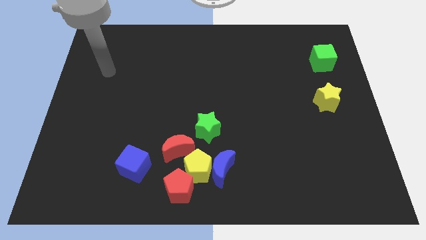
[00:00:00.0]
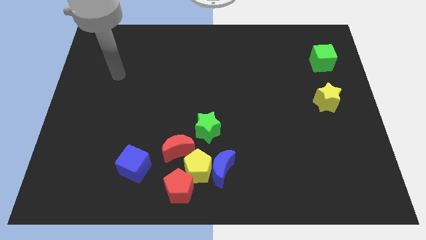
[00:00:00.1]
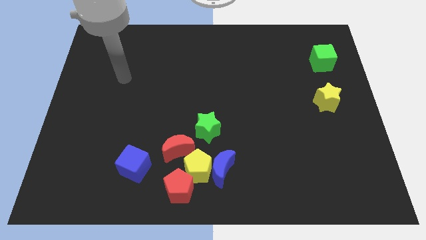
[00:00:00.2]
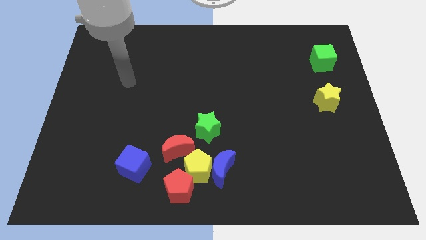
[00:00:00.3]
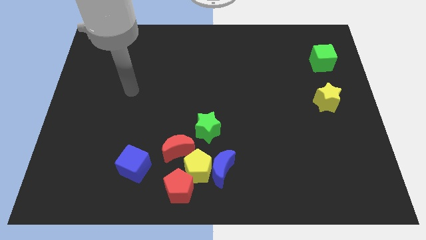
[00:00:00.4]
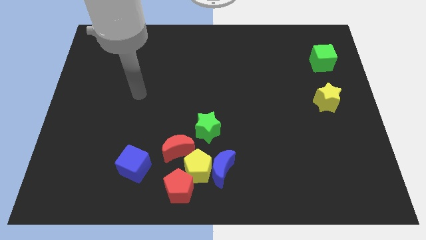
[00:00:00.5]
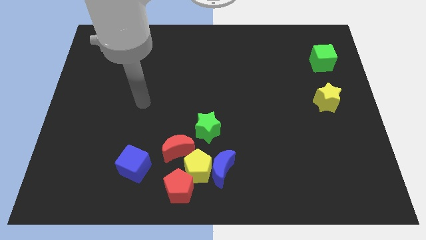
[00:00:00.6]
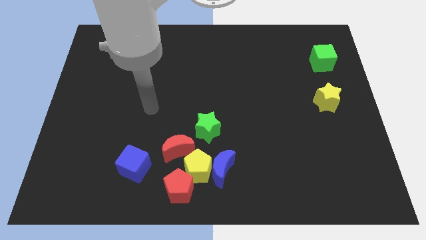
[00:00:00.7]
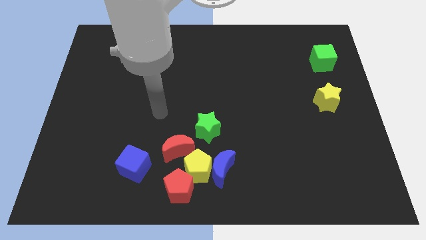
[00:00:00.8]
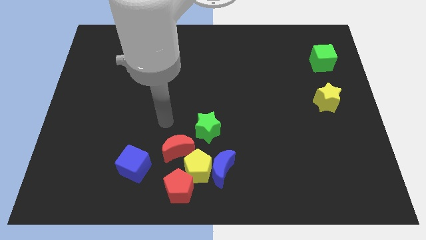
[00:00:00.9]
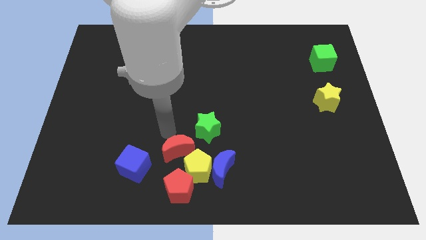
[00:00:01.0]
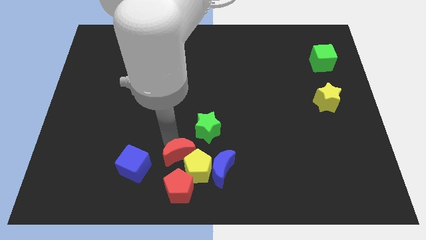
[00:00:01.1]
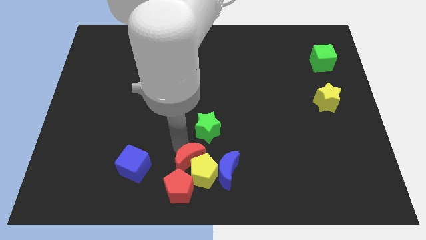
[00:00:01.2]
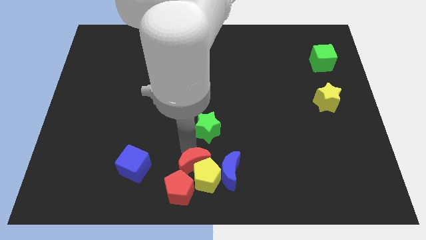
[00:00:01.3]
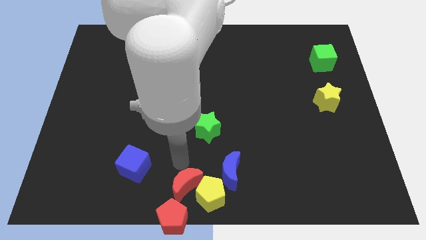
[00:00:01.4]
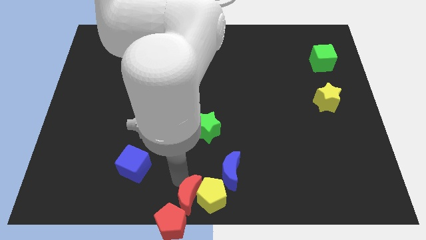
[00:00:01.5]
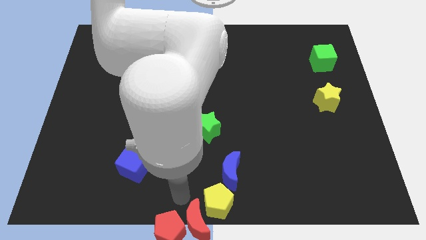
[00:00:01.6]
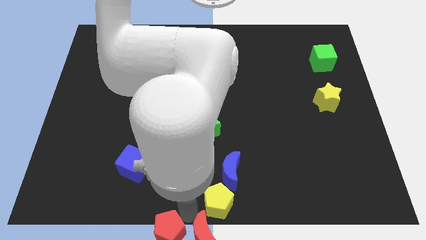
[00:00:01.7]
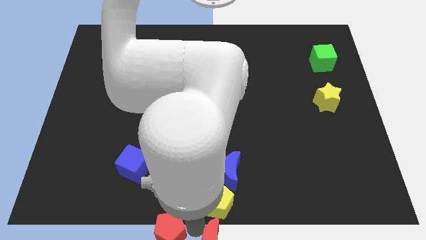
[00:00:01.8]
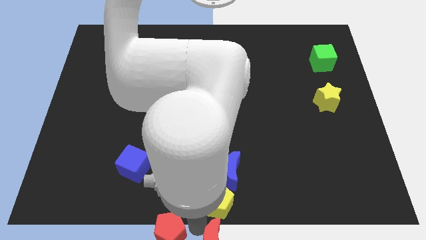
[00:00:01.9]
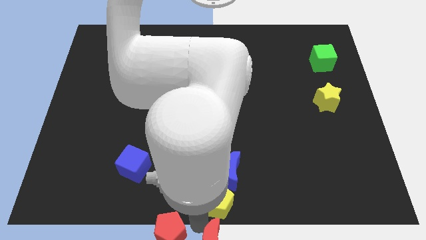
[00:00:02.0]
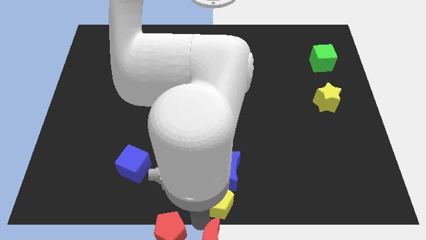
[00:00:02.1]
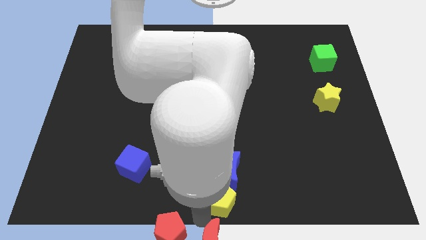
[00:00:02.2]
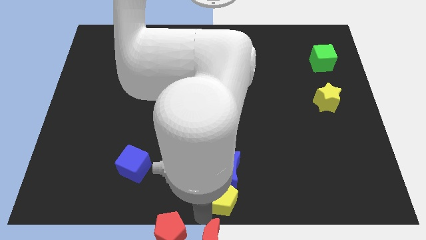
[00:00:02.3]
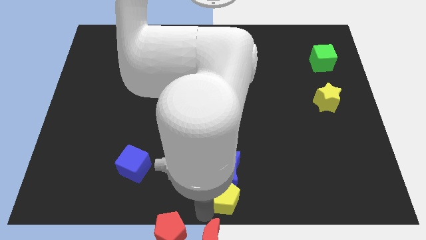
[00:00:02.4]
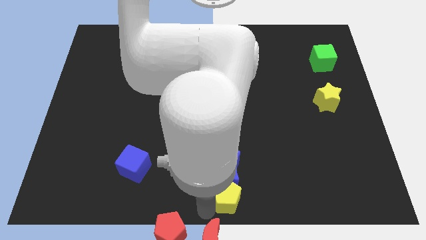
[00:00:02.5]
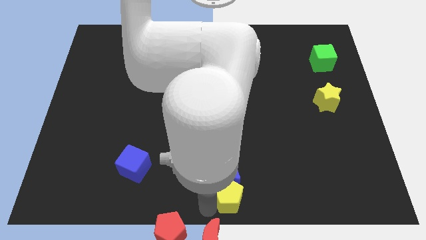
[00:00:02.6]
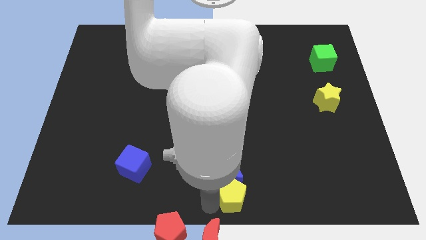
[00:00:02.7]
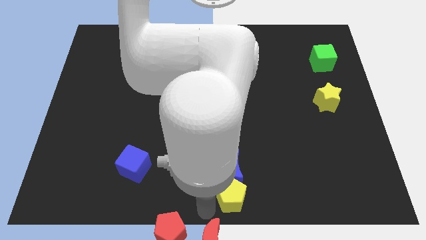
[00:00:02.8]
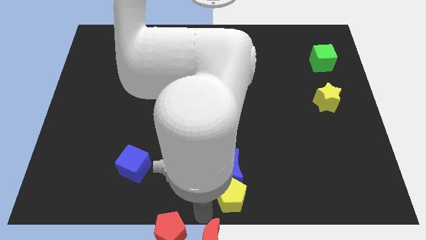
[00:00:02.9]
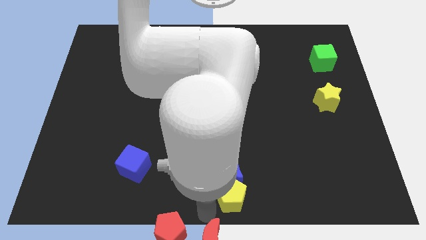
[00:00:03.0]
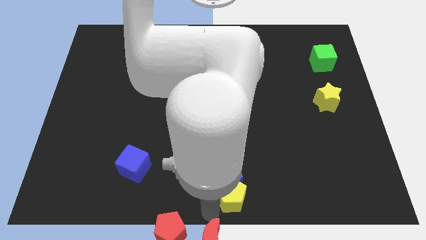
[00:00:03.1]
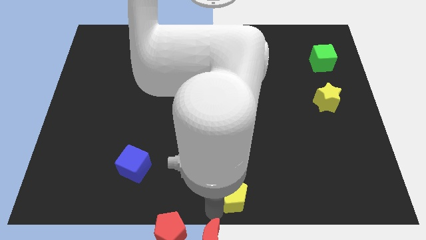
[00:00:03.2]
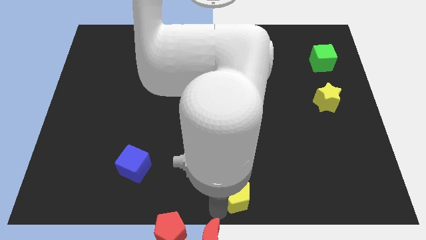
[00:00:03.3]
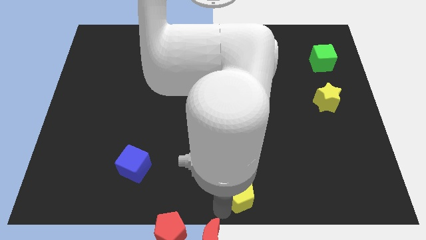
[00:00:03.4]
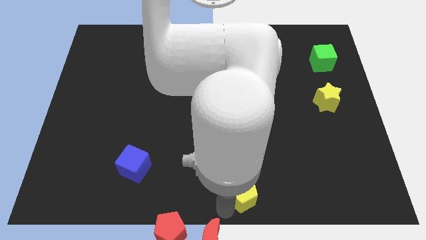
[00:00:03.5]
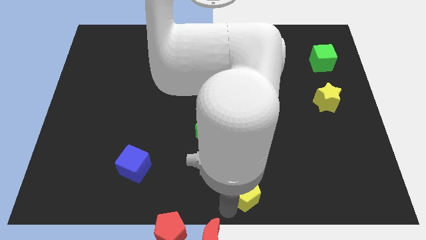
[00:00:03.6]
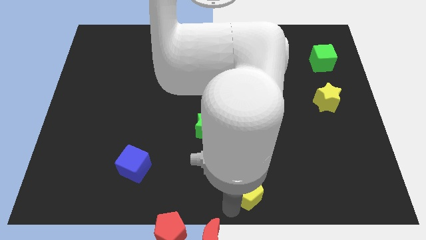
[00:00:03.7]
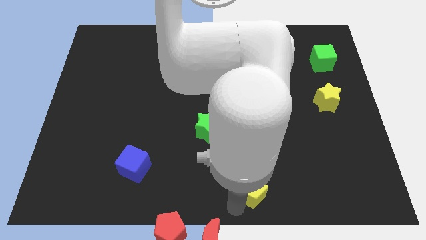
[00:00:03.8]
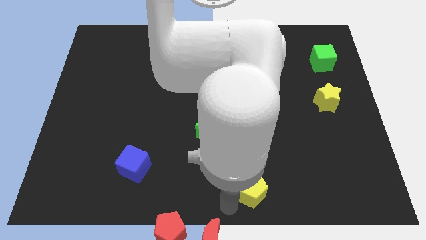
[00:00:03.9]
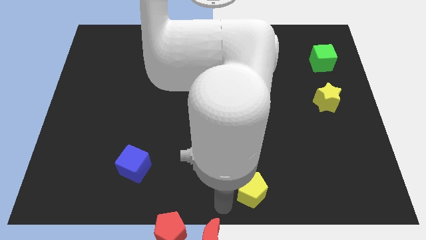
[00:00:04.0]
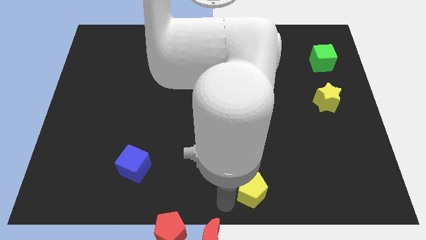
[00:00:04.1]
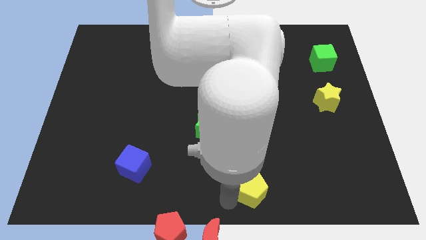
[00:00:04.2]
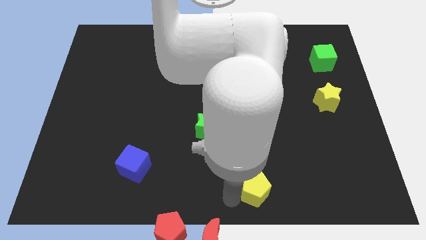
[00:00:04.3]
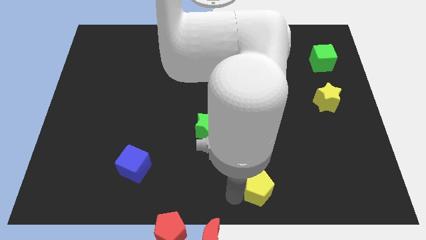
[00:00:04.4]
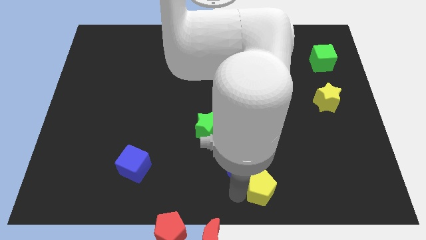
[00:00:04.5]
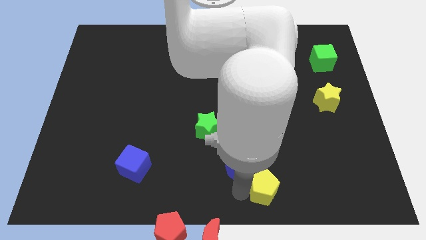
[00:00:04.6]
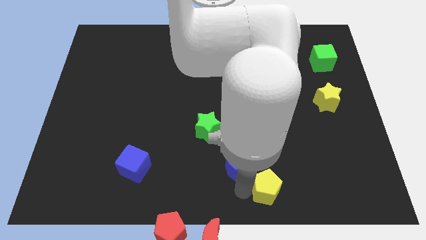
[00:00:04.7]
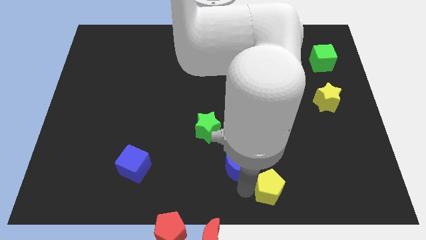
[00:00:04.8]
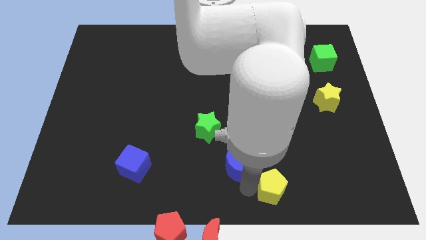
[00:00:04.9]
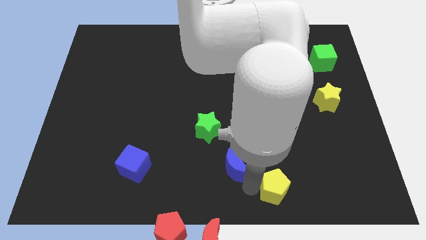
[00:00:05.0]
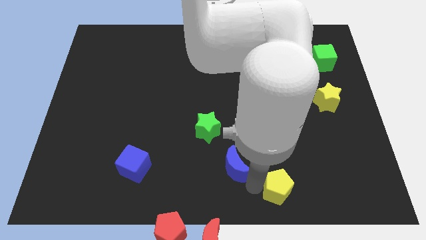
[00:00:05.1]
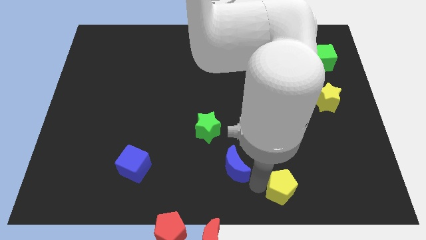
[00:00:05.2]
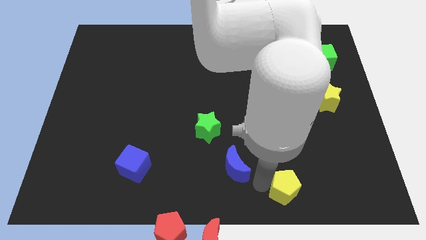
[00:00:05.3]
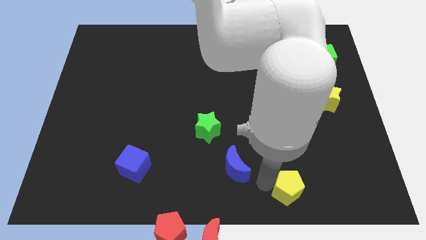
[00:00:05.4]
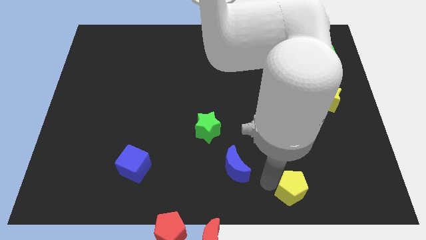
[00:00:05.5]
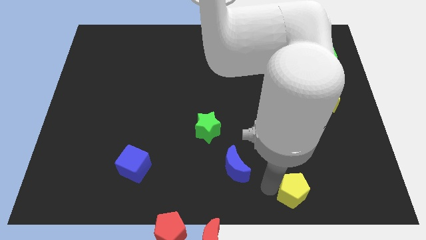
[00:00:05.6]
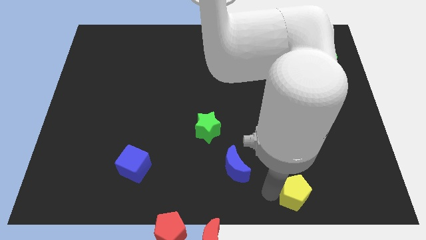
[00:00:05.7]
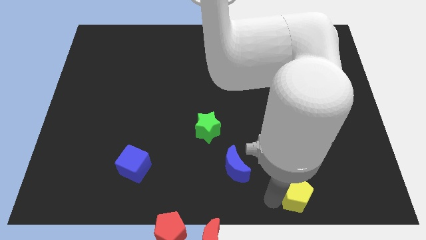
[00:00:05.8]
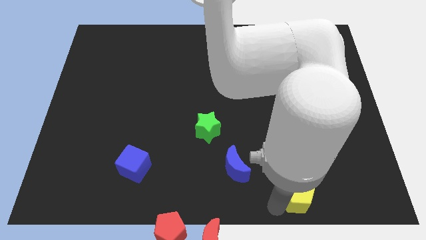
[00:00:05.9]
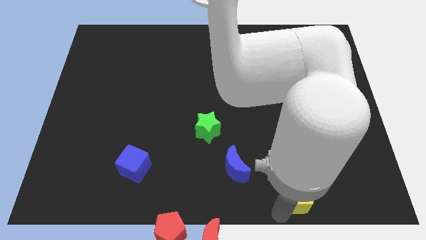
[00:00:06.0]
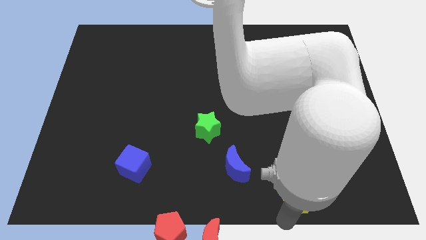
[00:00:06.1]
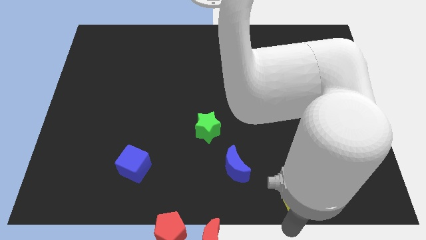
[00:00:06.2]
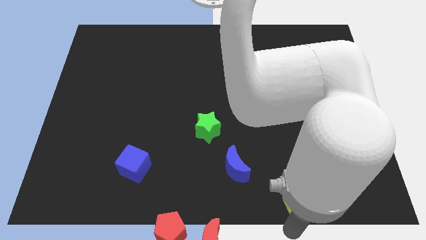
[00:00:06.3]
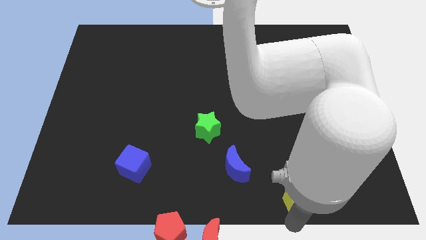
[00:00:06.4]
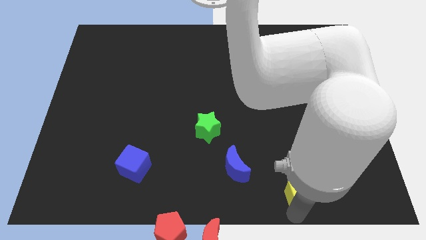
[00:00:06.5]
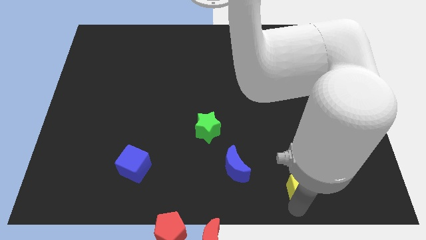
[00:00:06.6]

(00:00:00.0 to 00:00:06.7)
slide the yellow pentagon right

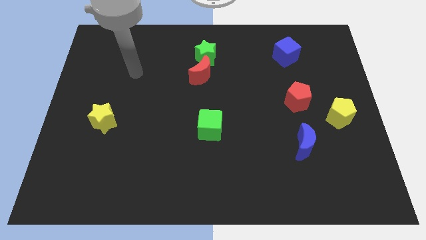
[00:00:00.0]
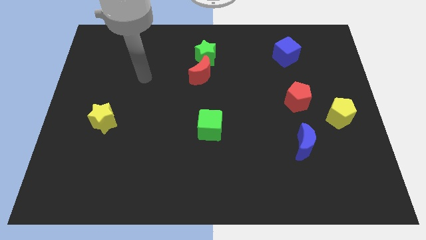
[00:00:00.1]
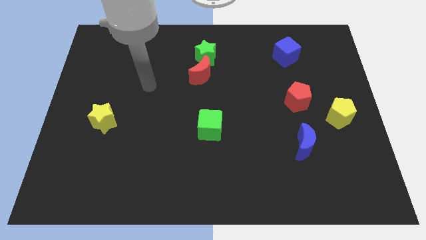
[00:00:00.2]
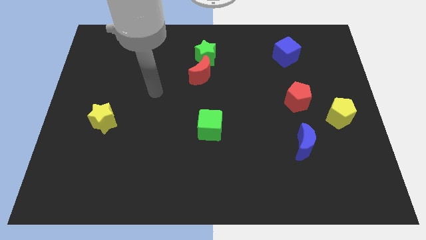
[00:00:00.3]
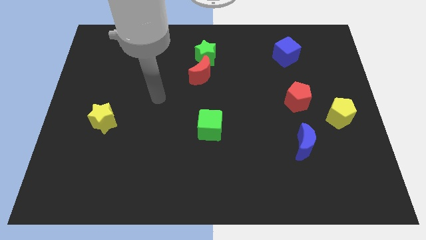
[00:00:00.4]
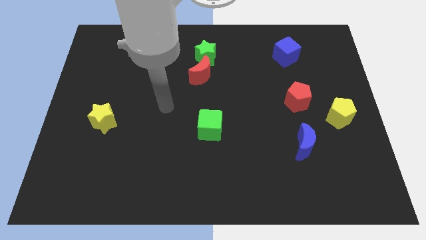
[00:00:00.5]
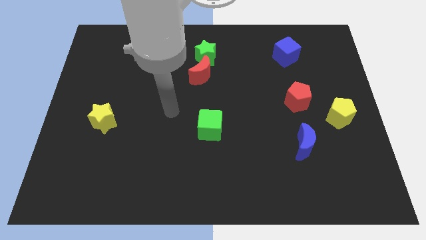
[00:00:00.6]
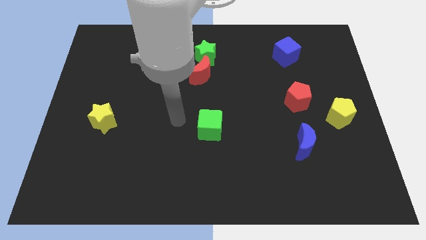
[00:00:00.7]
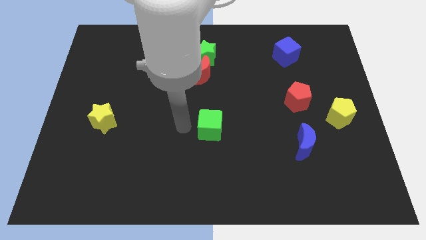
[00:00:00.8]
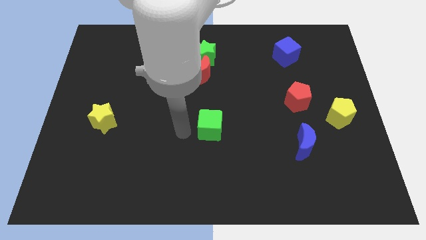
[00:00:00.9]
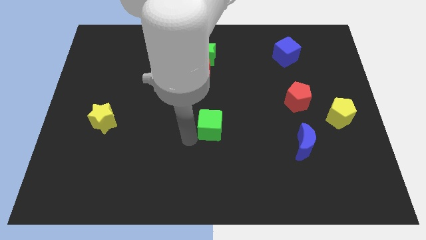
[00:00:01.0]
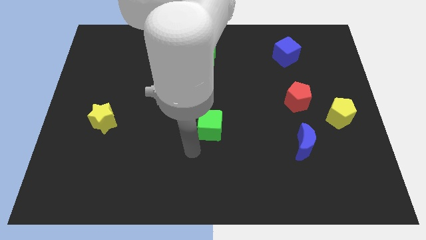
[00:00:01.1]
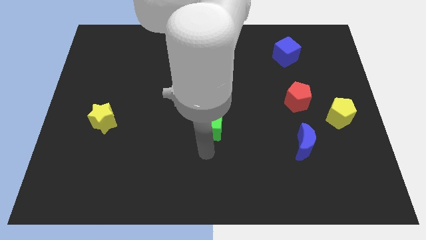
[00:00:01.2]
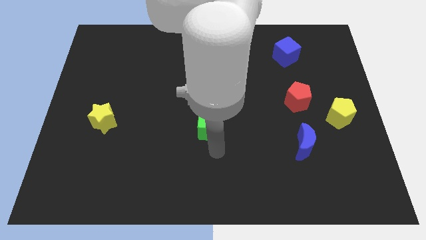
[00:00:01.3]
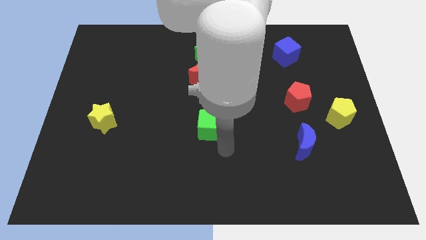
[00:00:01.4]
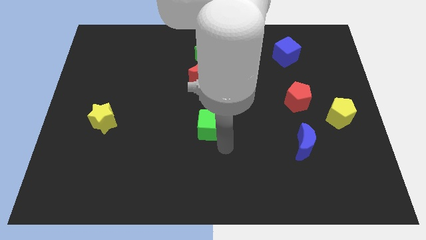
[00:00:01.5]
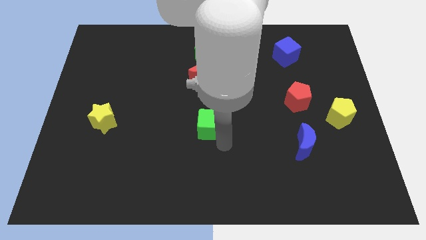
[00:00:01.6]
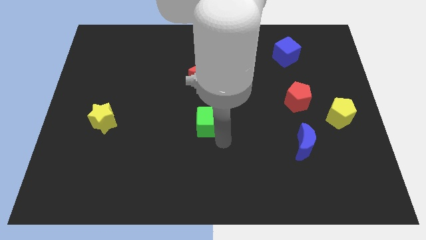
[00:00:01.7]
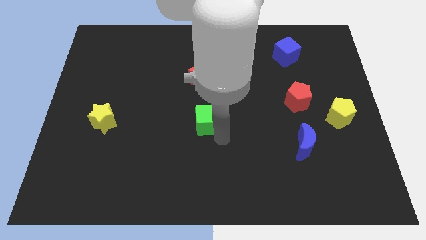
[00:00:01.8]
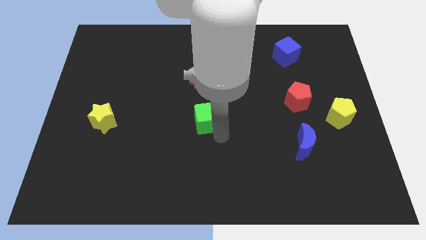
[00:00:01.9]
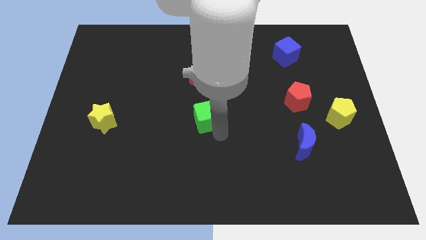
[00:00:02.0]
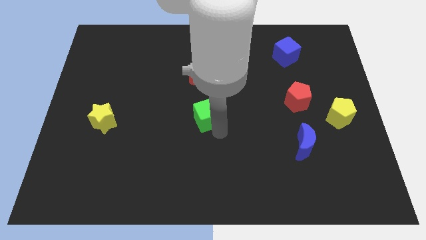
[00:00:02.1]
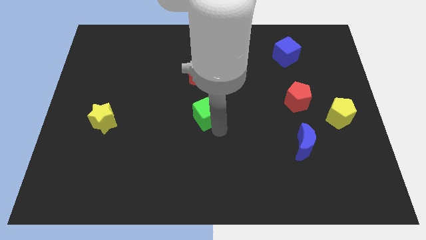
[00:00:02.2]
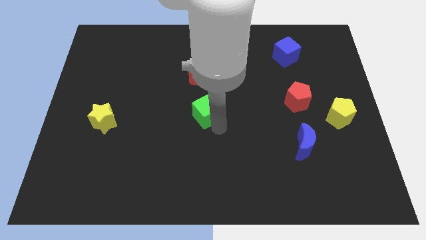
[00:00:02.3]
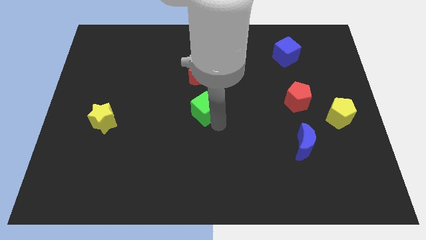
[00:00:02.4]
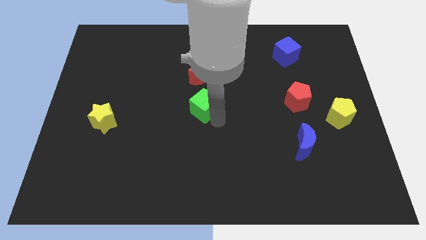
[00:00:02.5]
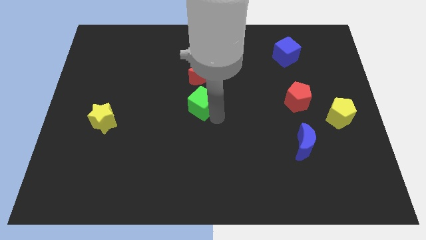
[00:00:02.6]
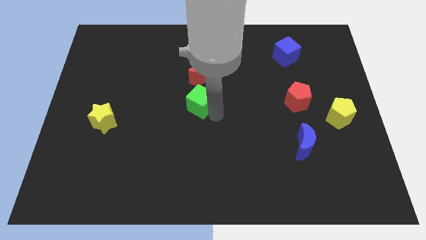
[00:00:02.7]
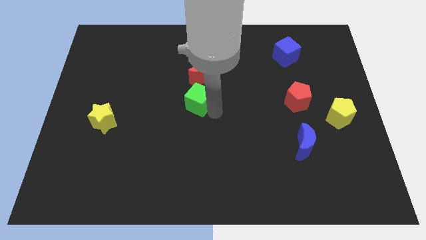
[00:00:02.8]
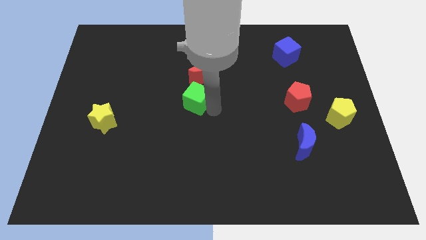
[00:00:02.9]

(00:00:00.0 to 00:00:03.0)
slide the green cube a little bit up and then to the left
